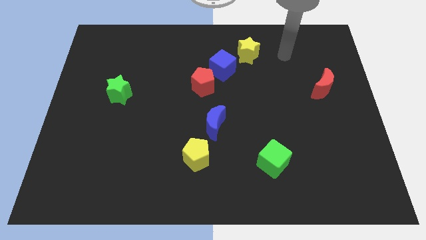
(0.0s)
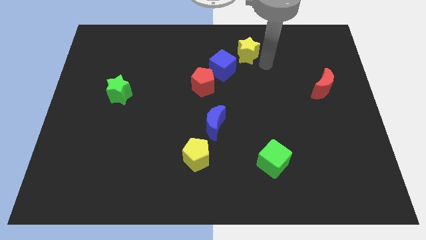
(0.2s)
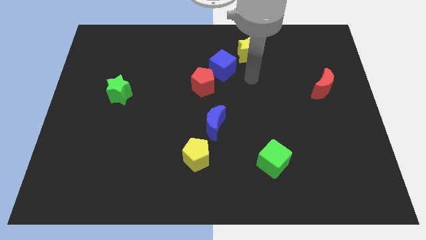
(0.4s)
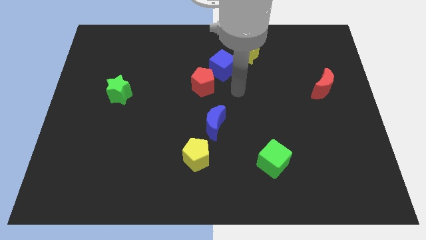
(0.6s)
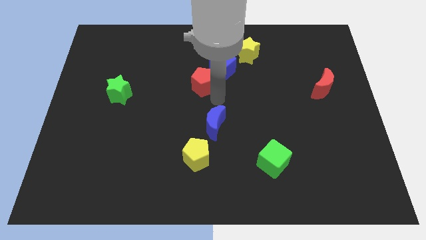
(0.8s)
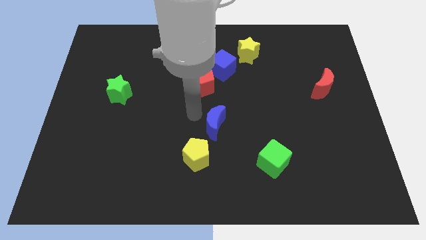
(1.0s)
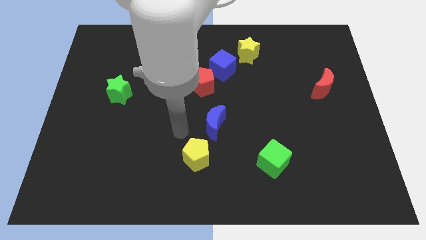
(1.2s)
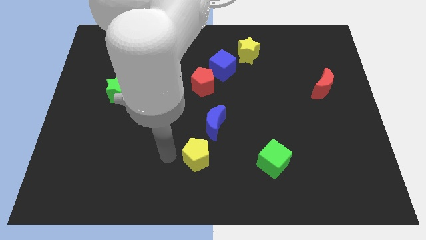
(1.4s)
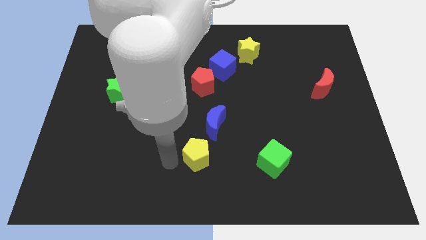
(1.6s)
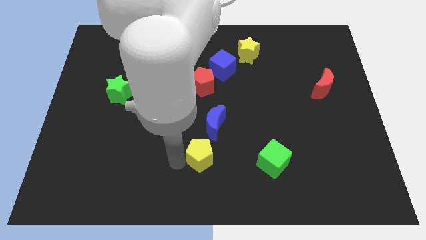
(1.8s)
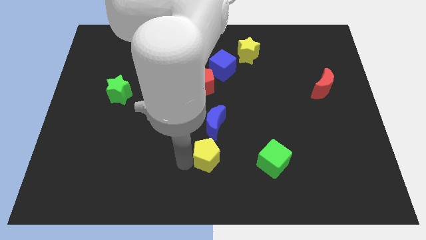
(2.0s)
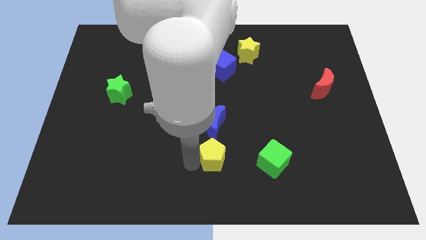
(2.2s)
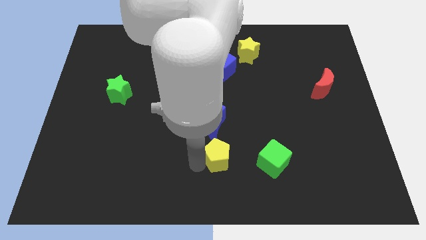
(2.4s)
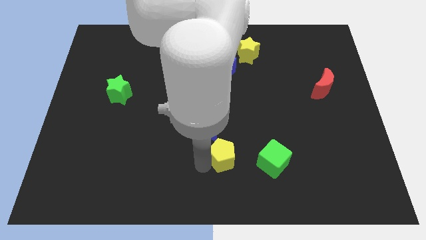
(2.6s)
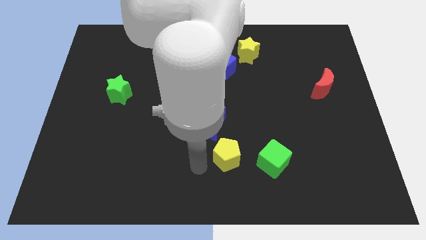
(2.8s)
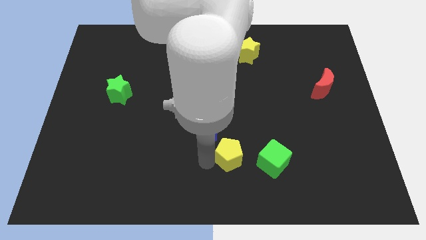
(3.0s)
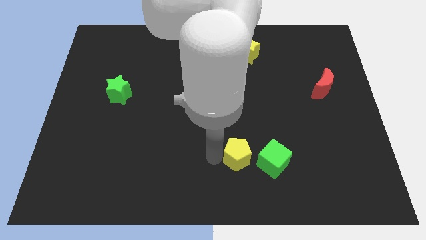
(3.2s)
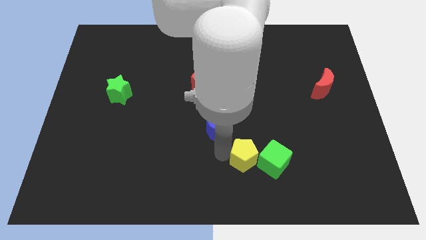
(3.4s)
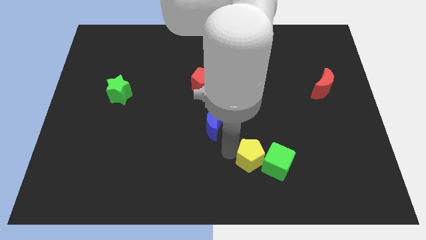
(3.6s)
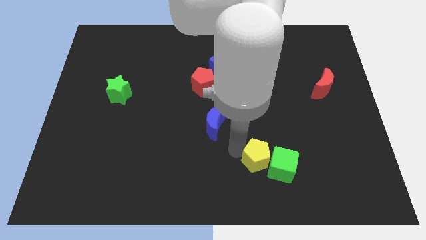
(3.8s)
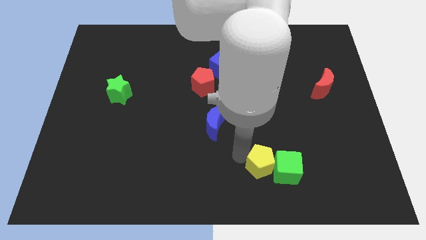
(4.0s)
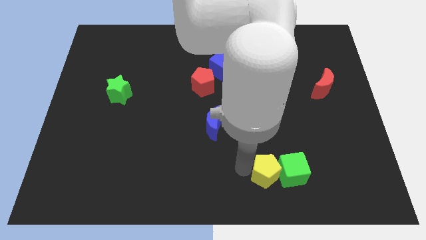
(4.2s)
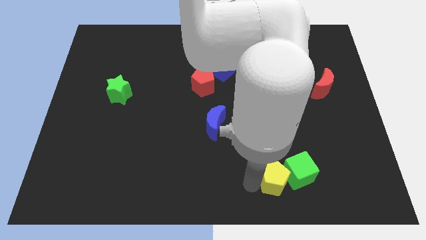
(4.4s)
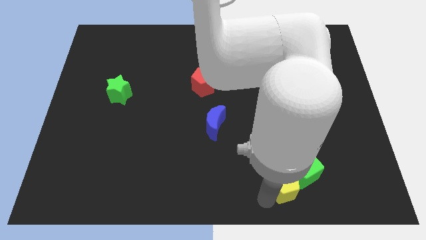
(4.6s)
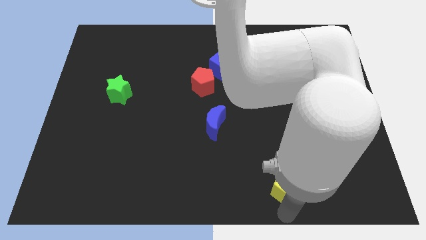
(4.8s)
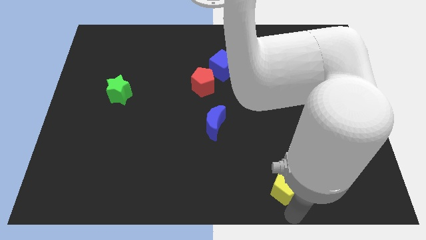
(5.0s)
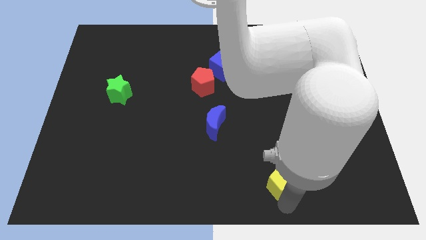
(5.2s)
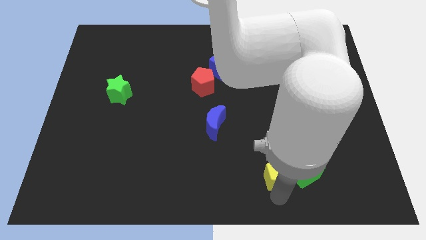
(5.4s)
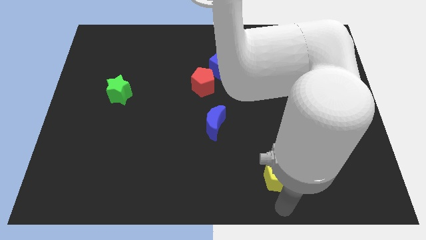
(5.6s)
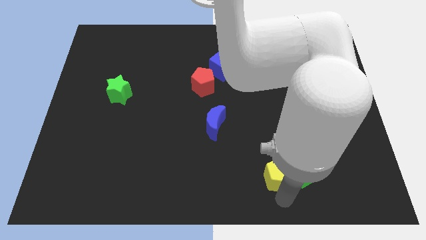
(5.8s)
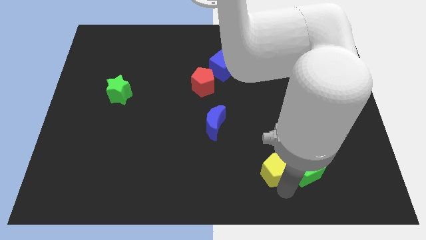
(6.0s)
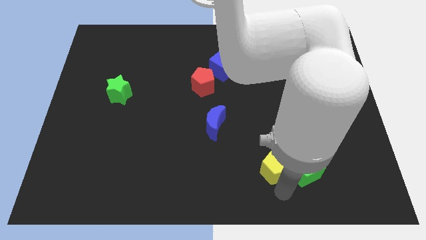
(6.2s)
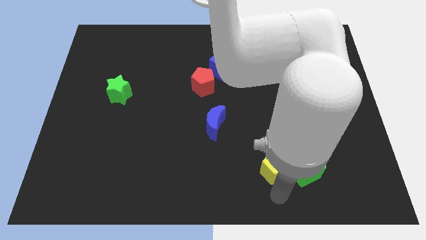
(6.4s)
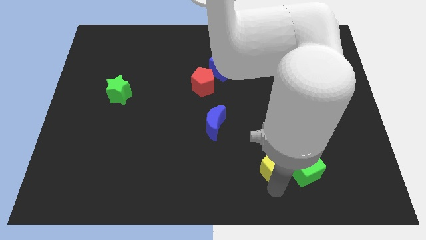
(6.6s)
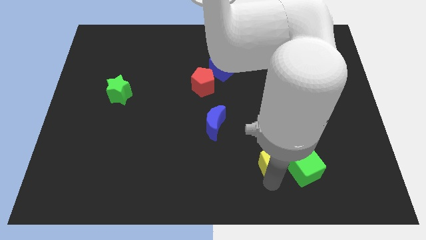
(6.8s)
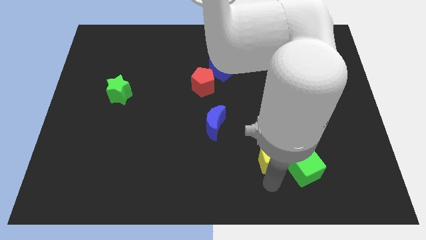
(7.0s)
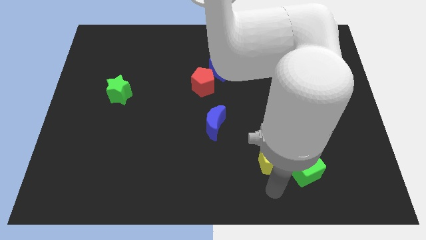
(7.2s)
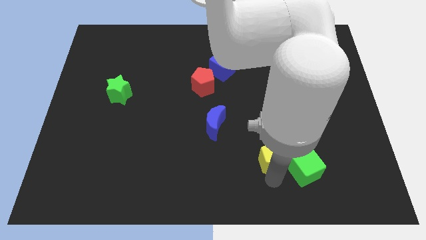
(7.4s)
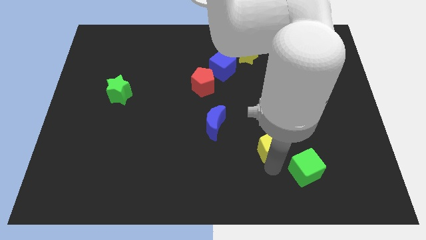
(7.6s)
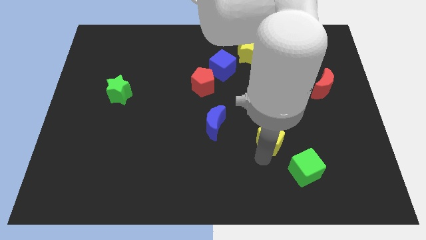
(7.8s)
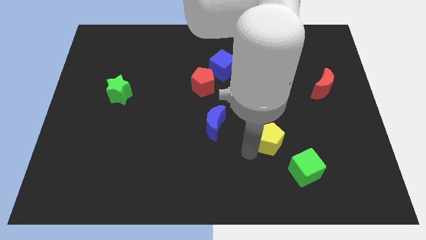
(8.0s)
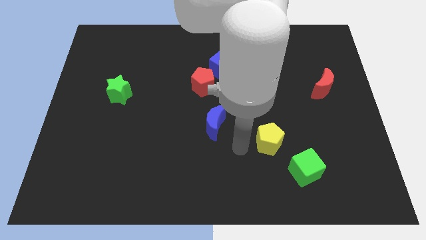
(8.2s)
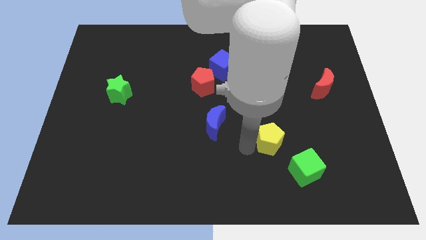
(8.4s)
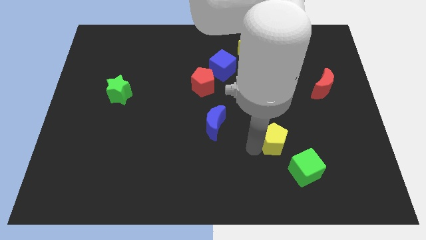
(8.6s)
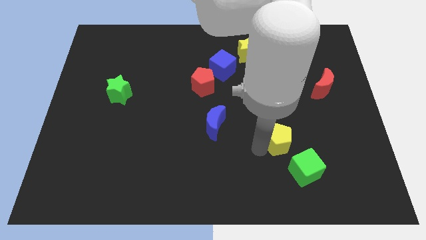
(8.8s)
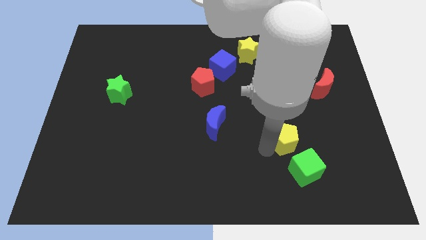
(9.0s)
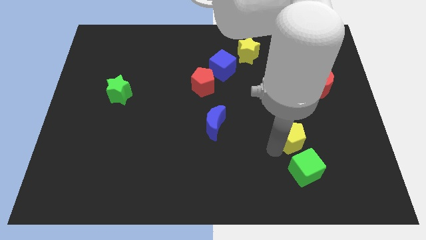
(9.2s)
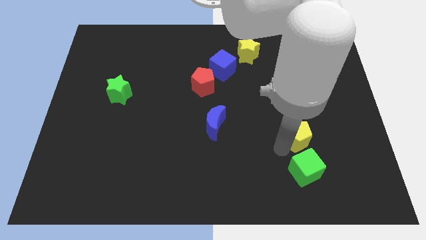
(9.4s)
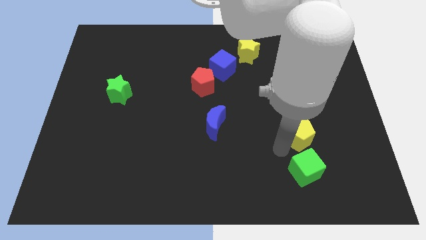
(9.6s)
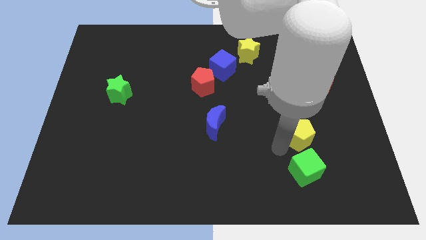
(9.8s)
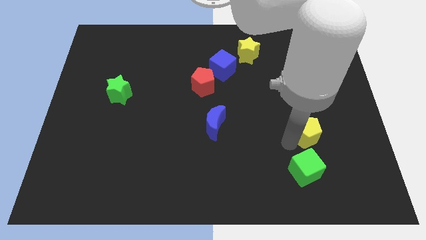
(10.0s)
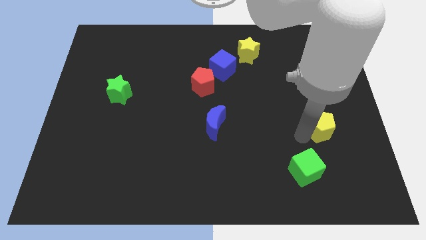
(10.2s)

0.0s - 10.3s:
move the yellow pentagon to the bottom side of the red moon

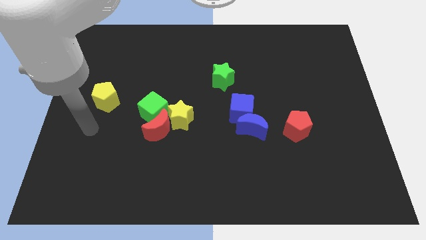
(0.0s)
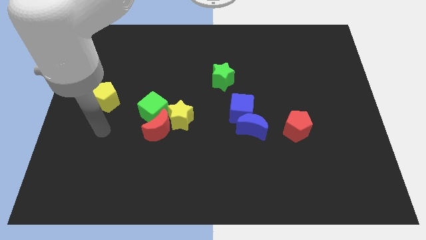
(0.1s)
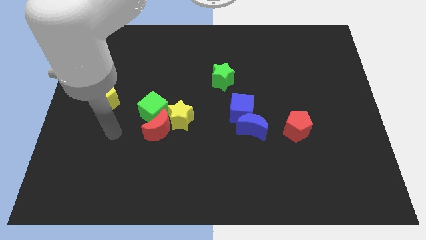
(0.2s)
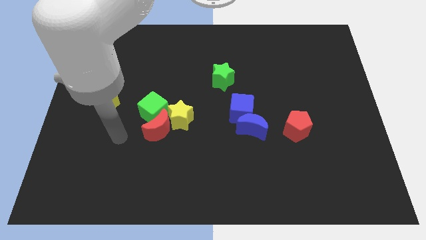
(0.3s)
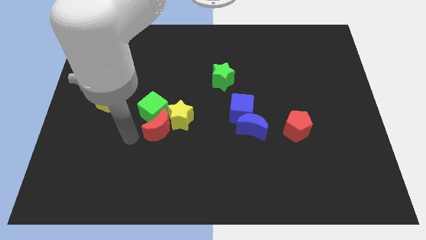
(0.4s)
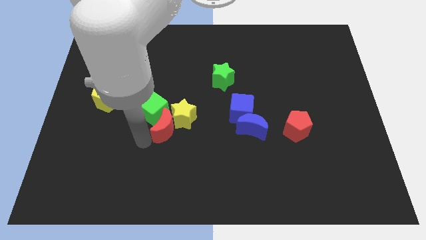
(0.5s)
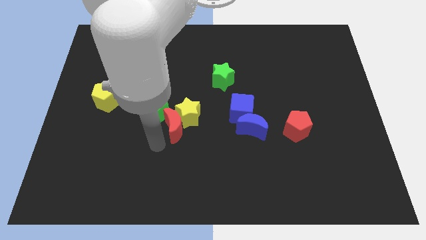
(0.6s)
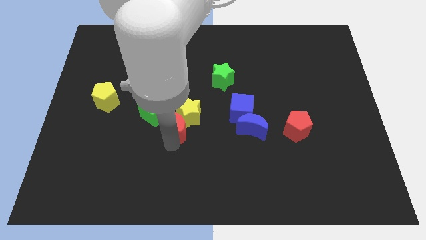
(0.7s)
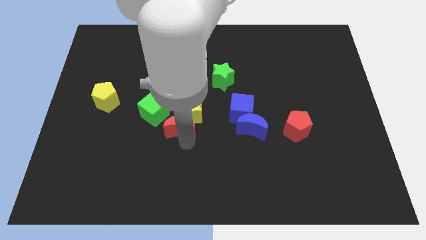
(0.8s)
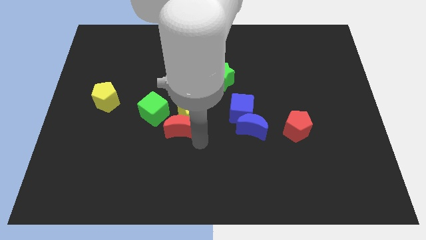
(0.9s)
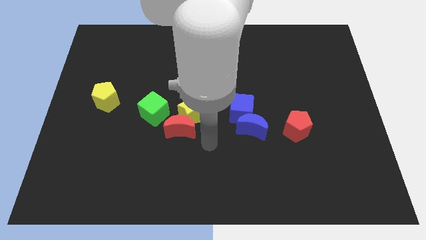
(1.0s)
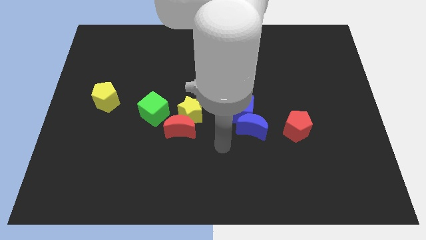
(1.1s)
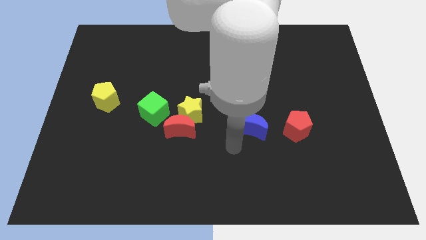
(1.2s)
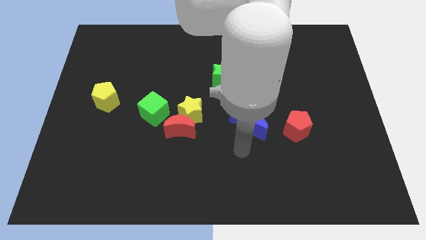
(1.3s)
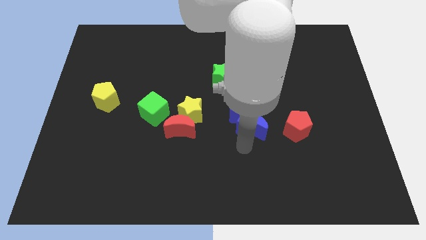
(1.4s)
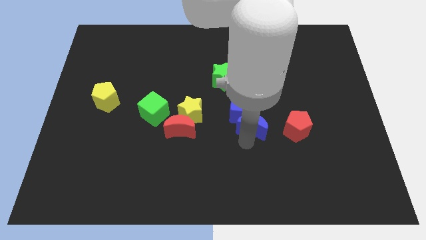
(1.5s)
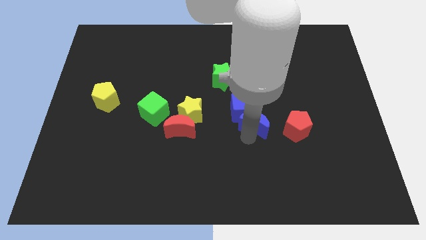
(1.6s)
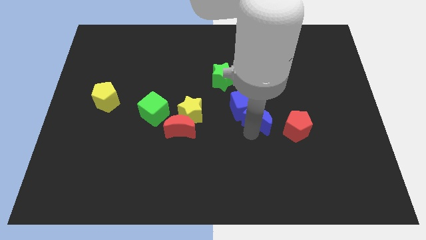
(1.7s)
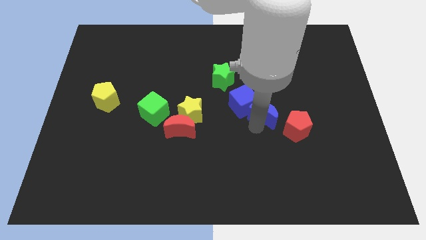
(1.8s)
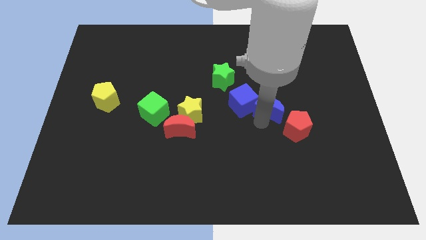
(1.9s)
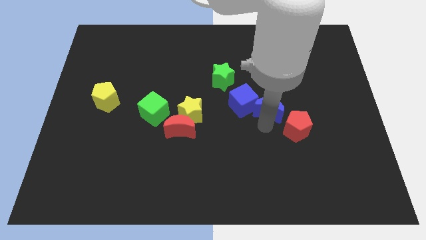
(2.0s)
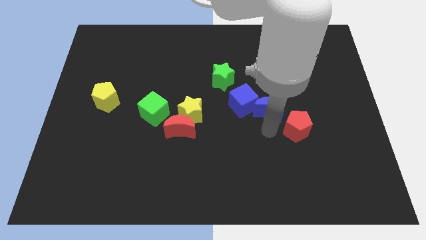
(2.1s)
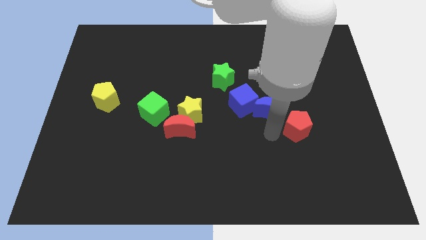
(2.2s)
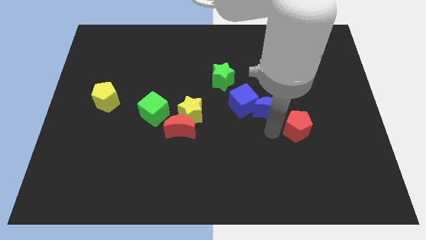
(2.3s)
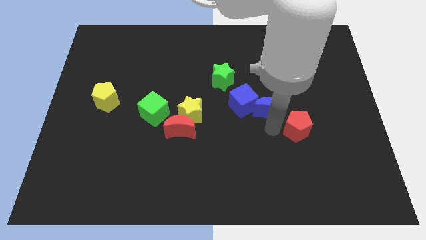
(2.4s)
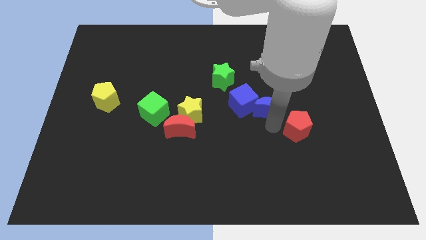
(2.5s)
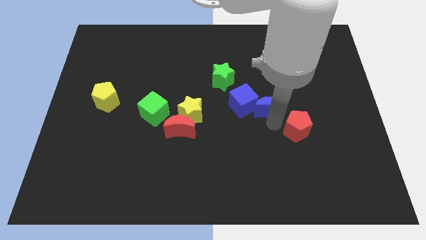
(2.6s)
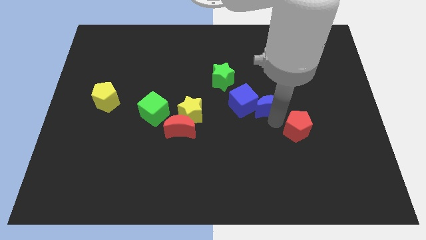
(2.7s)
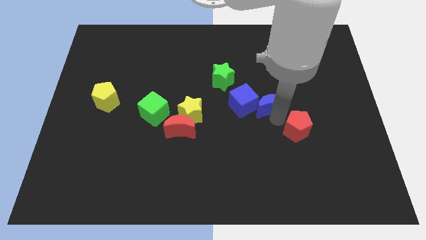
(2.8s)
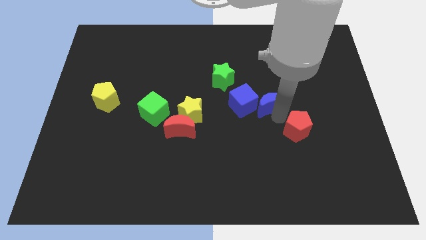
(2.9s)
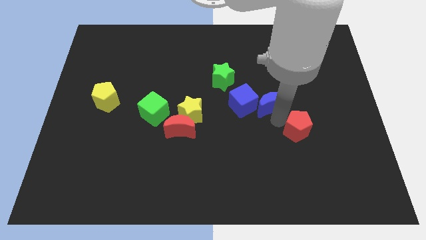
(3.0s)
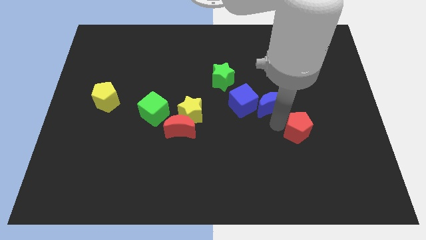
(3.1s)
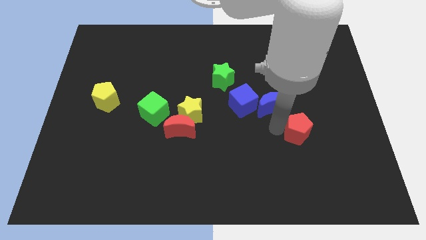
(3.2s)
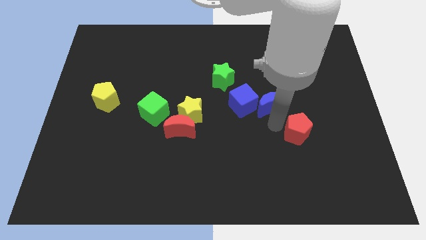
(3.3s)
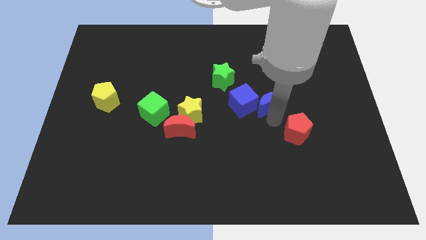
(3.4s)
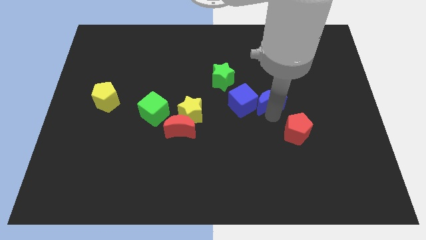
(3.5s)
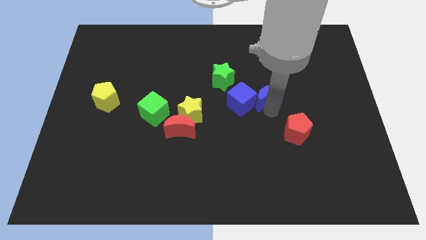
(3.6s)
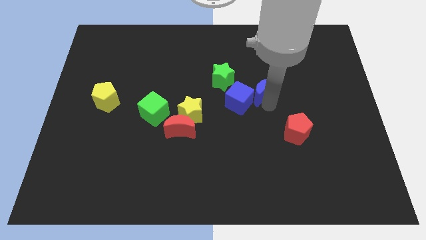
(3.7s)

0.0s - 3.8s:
move the blue moon right of the green star
